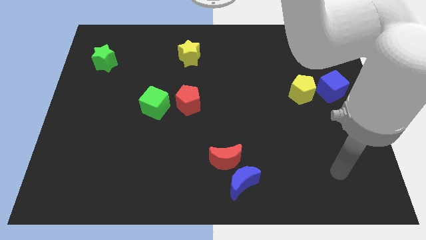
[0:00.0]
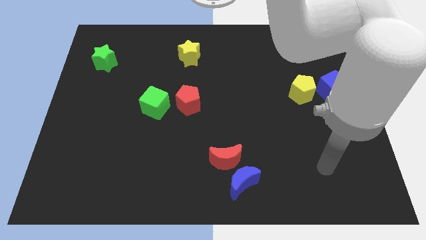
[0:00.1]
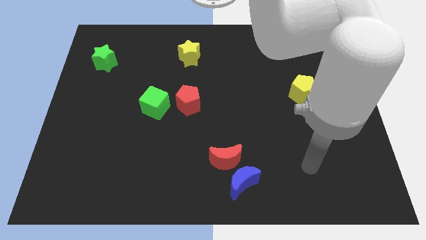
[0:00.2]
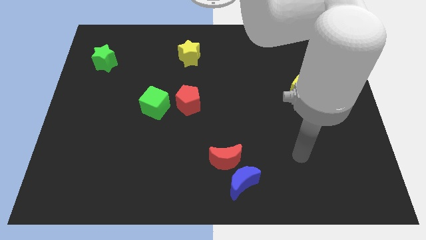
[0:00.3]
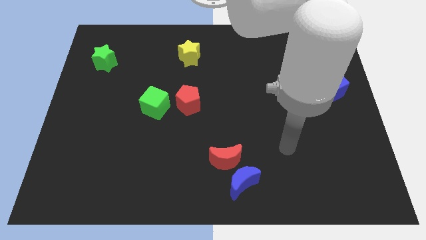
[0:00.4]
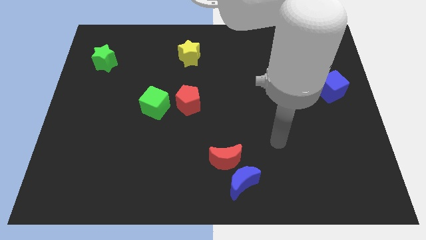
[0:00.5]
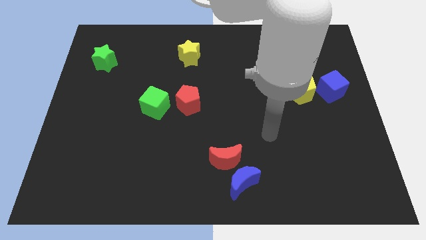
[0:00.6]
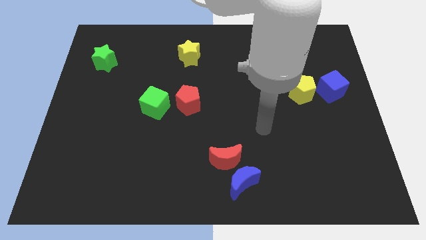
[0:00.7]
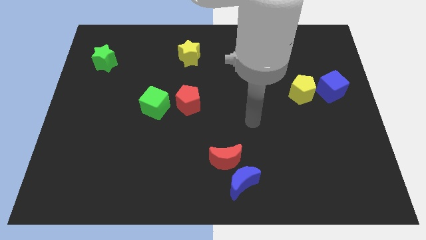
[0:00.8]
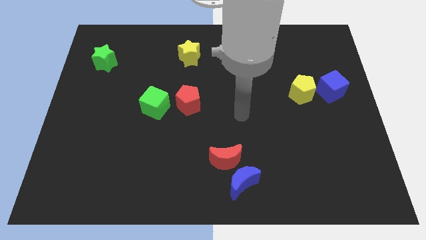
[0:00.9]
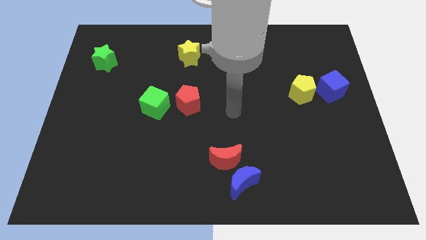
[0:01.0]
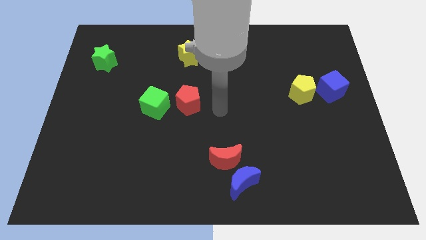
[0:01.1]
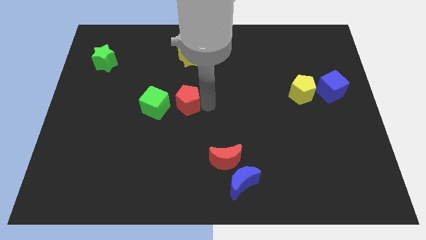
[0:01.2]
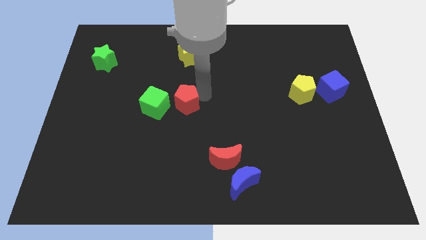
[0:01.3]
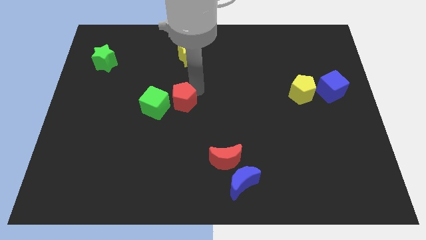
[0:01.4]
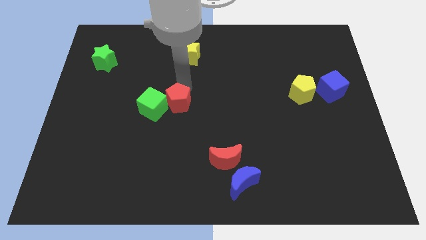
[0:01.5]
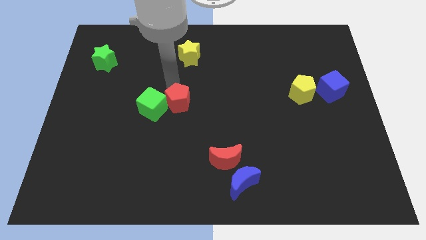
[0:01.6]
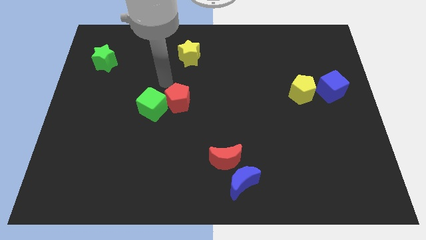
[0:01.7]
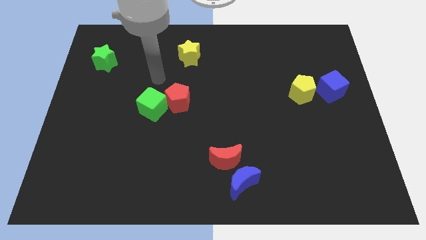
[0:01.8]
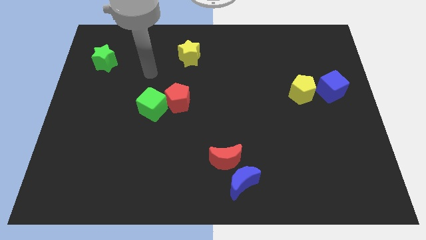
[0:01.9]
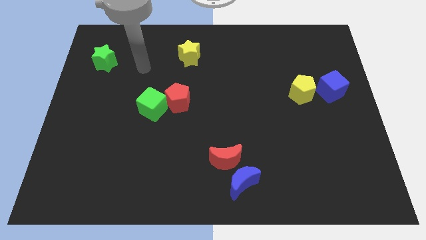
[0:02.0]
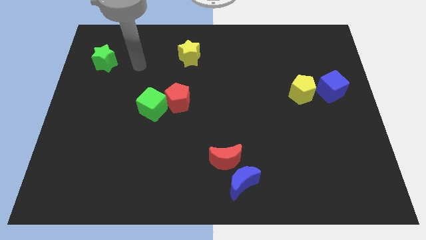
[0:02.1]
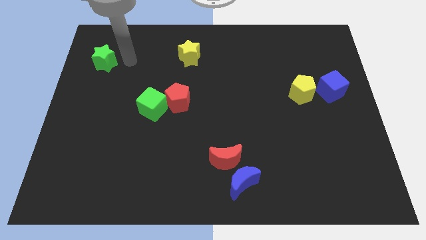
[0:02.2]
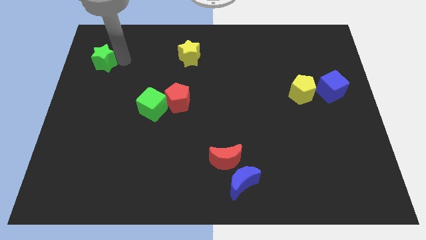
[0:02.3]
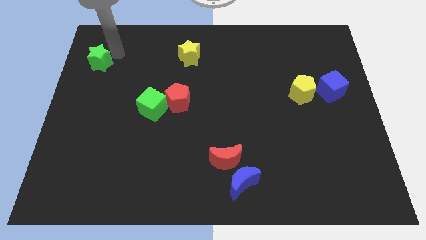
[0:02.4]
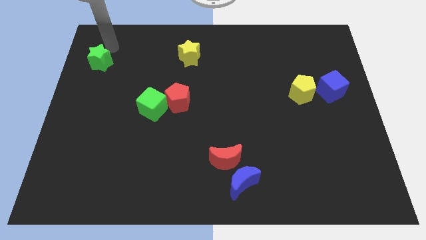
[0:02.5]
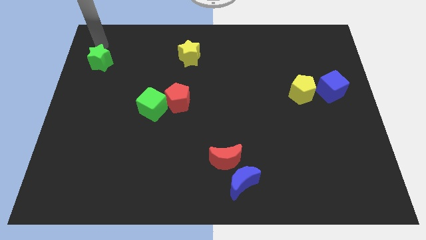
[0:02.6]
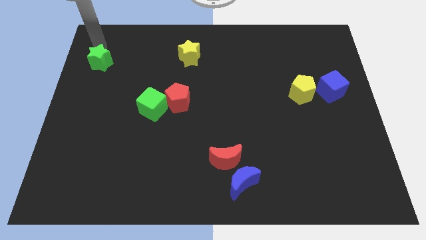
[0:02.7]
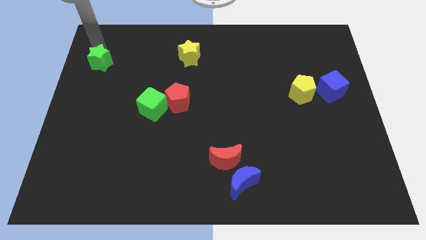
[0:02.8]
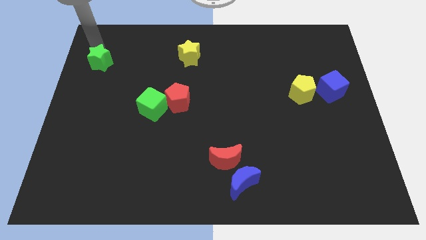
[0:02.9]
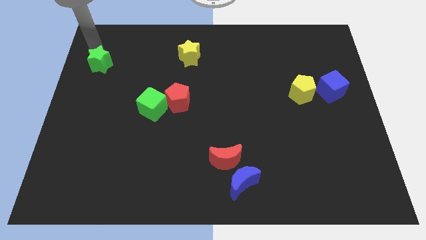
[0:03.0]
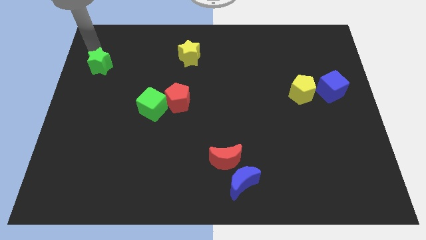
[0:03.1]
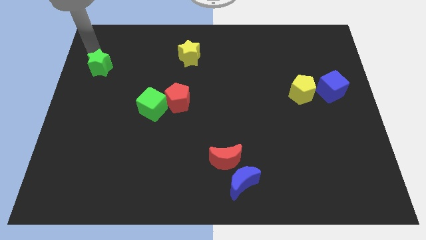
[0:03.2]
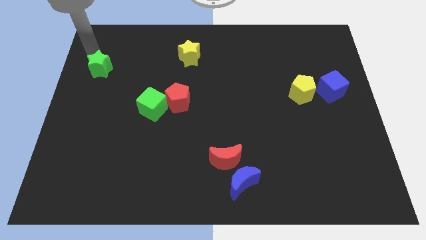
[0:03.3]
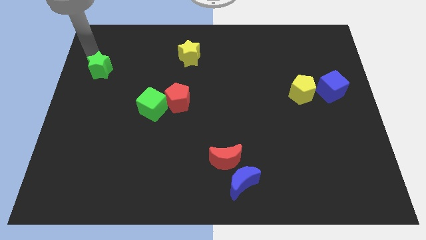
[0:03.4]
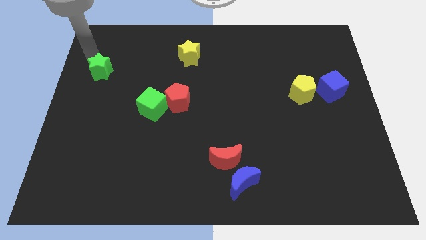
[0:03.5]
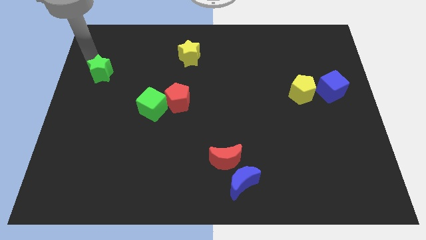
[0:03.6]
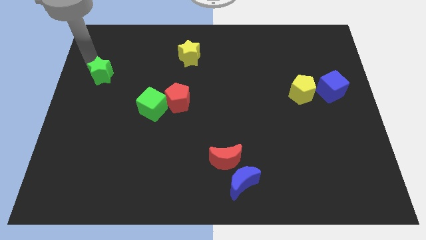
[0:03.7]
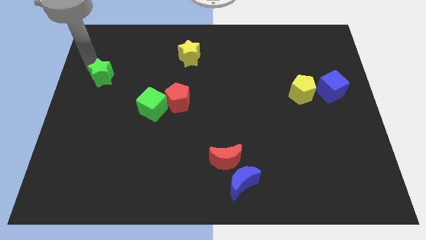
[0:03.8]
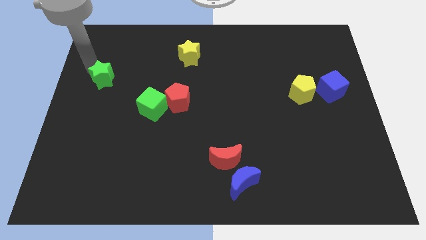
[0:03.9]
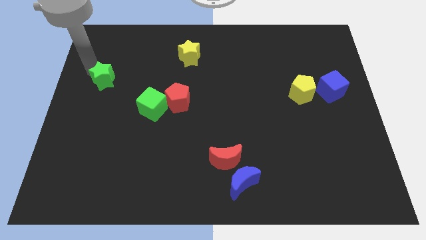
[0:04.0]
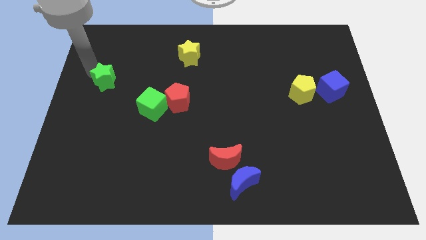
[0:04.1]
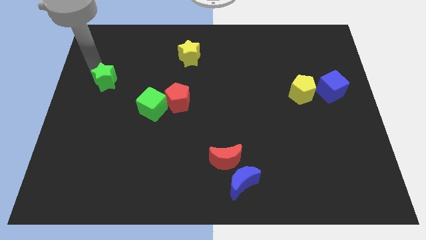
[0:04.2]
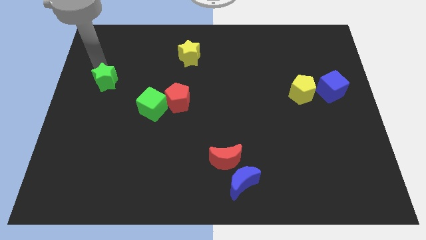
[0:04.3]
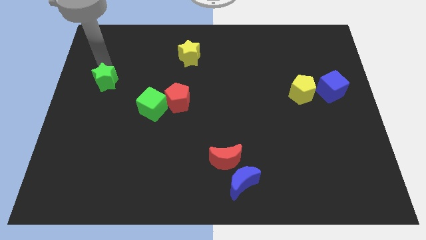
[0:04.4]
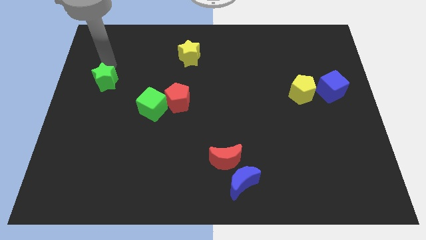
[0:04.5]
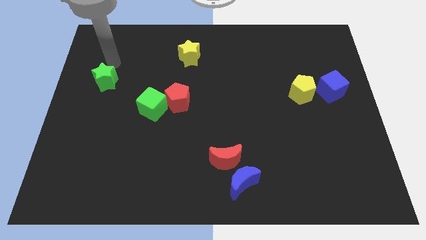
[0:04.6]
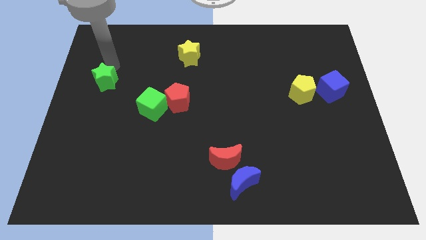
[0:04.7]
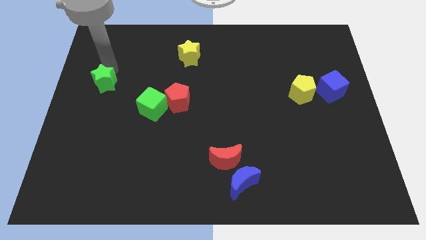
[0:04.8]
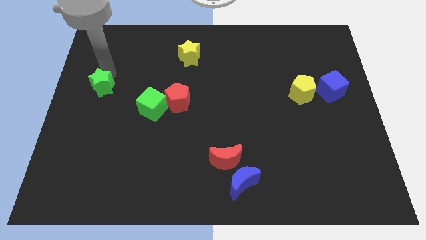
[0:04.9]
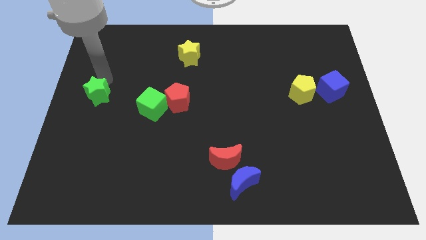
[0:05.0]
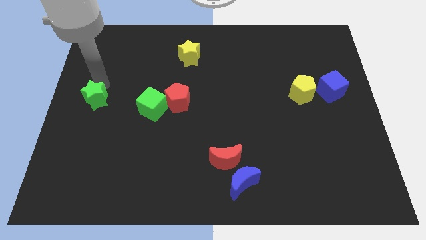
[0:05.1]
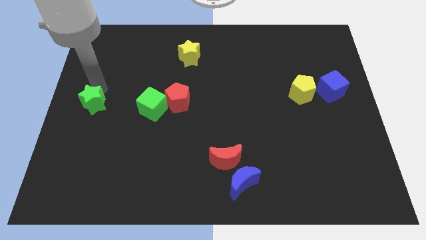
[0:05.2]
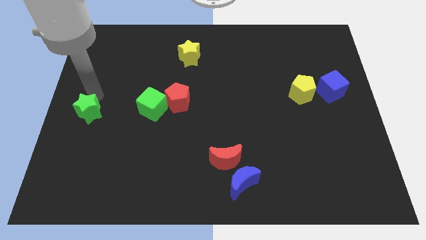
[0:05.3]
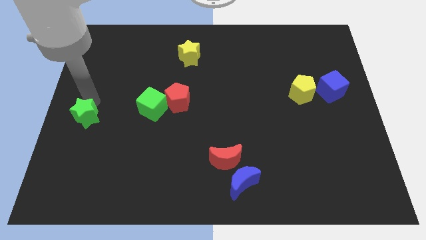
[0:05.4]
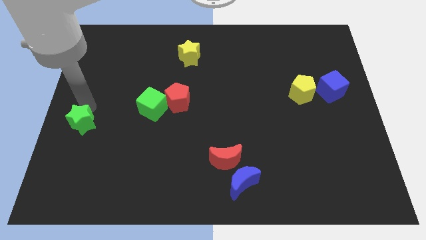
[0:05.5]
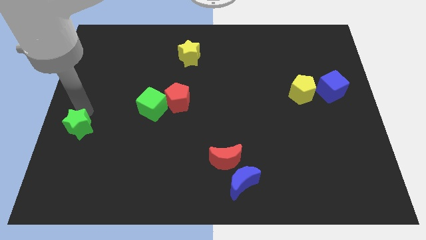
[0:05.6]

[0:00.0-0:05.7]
push the green star down

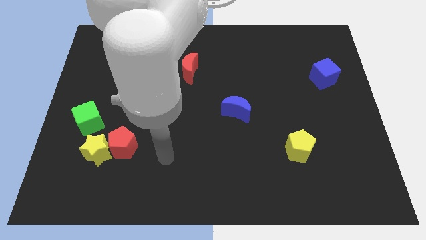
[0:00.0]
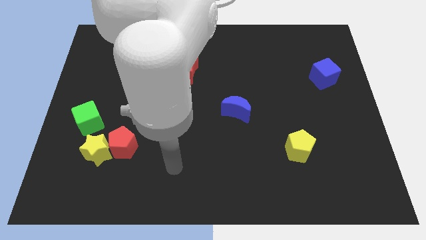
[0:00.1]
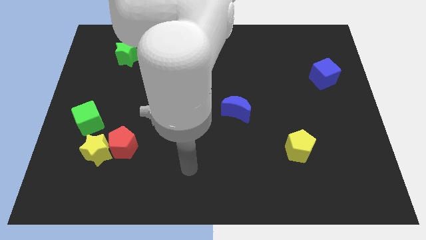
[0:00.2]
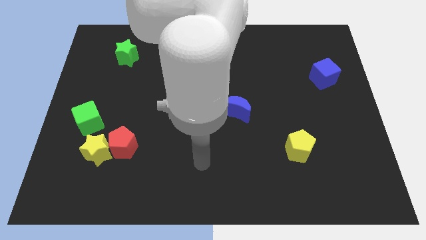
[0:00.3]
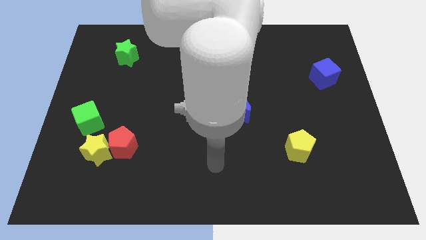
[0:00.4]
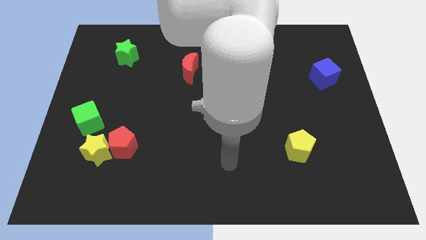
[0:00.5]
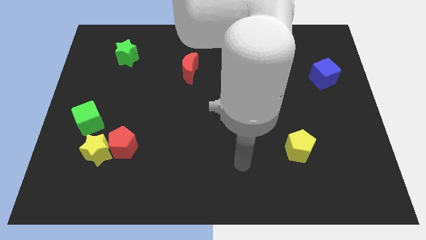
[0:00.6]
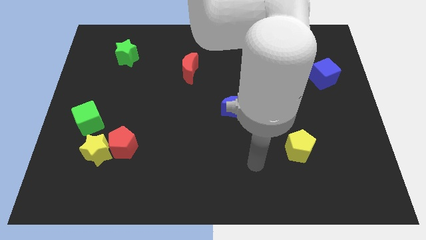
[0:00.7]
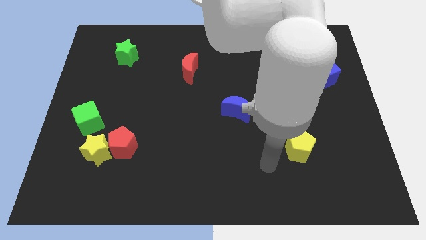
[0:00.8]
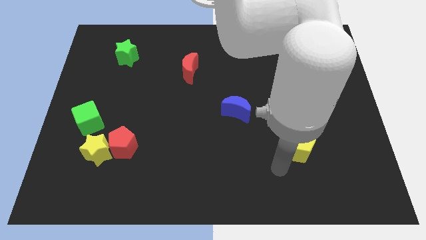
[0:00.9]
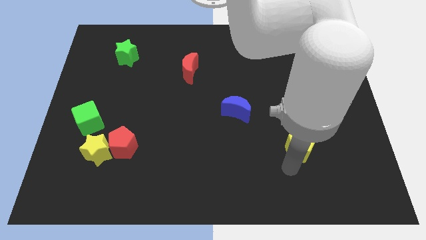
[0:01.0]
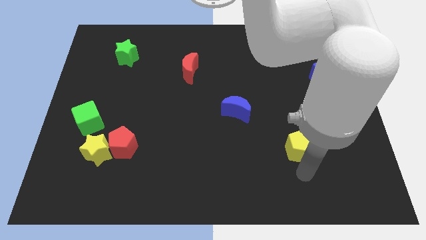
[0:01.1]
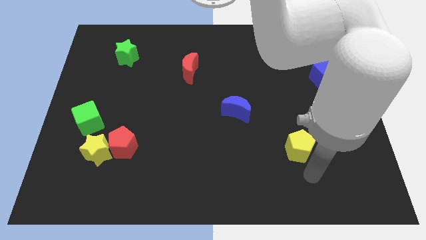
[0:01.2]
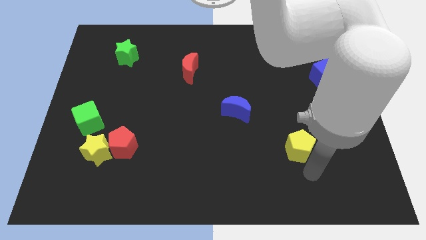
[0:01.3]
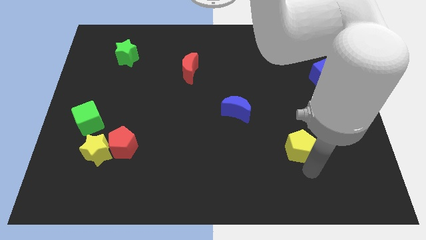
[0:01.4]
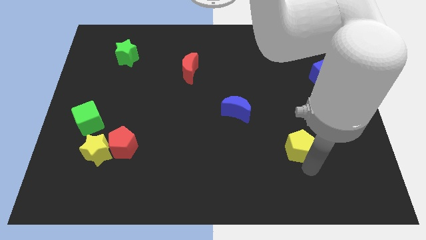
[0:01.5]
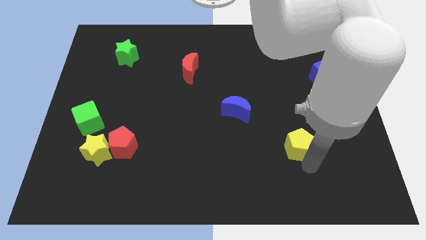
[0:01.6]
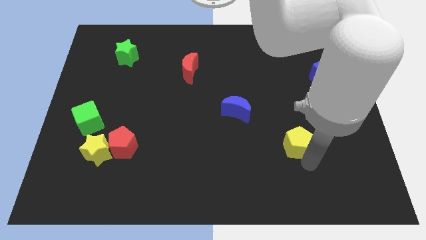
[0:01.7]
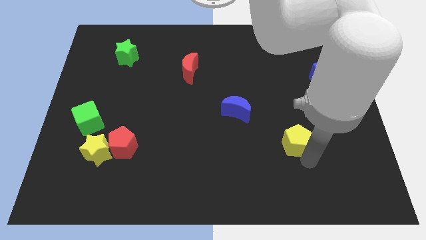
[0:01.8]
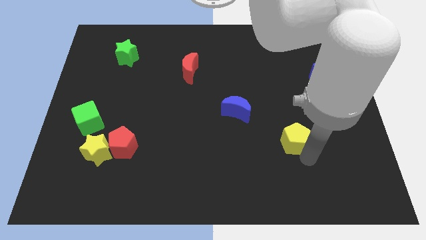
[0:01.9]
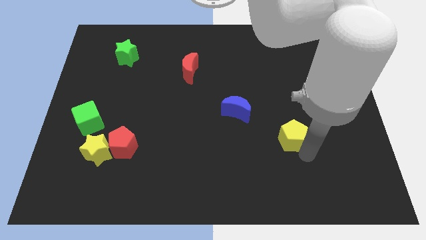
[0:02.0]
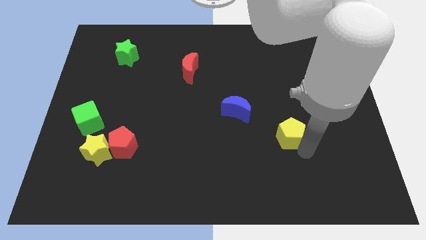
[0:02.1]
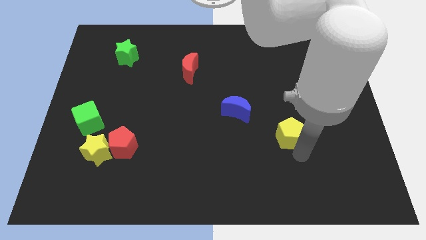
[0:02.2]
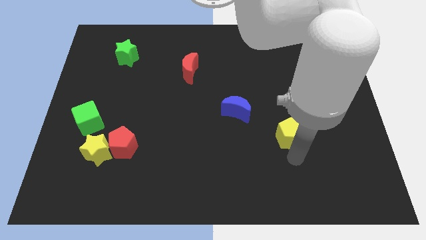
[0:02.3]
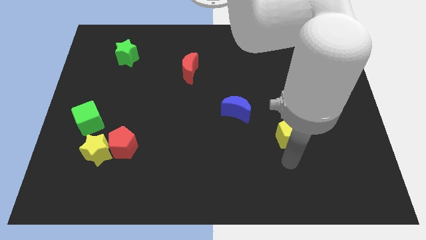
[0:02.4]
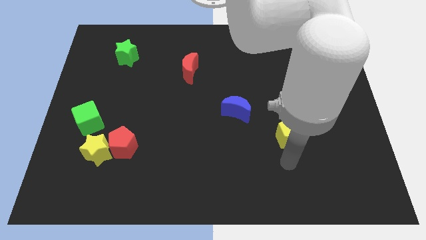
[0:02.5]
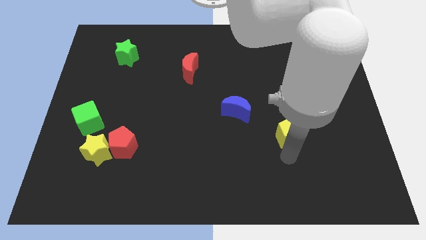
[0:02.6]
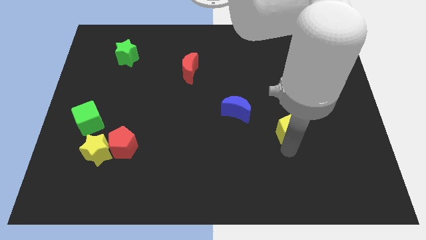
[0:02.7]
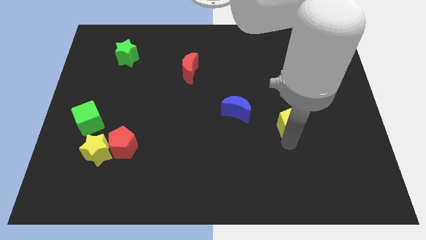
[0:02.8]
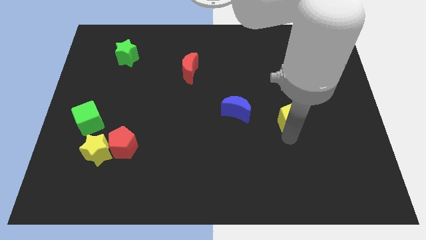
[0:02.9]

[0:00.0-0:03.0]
slightly move the yellow pentagon upwards
